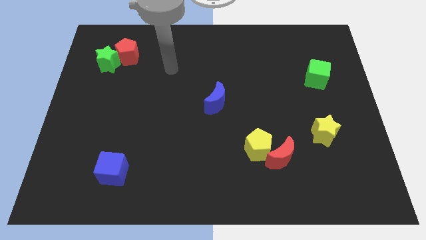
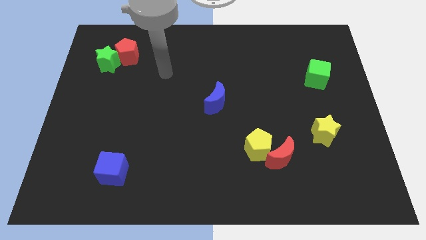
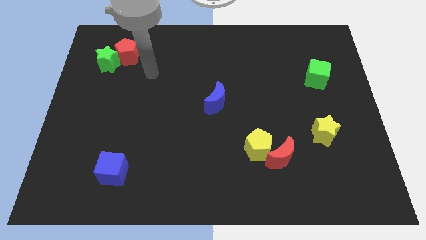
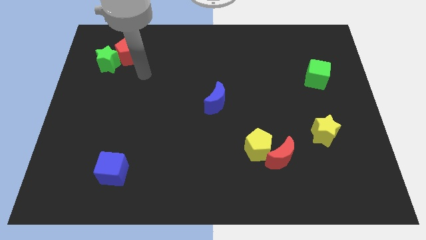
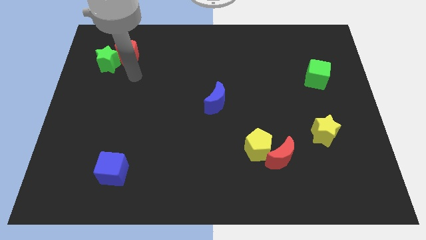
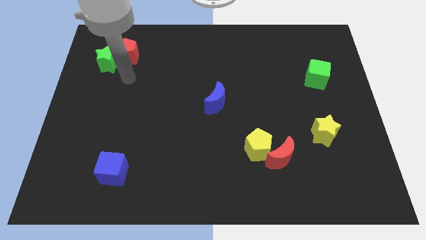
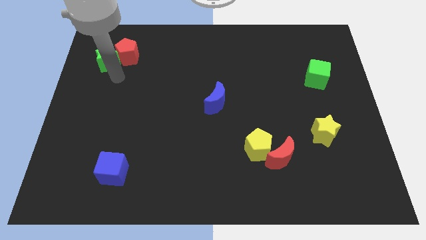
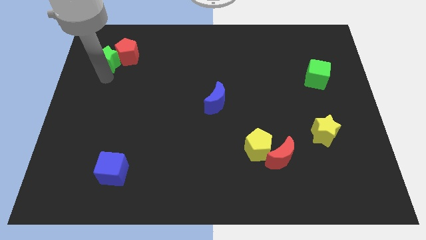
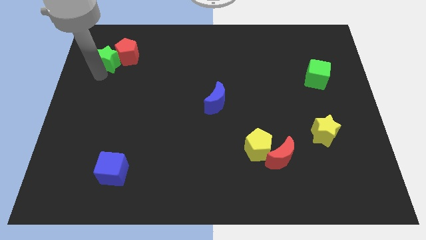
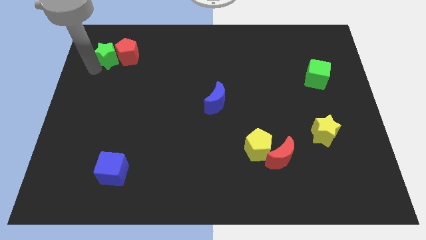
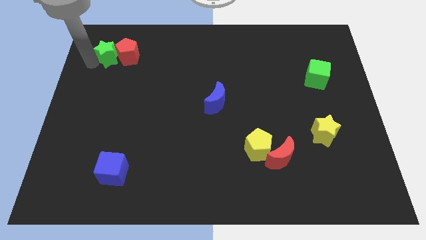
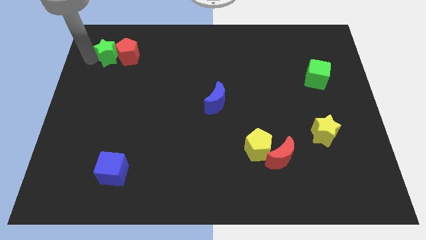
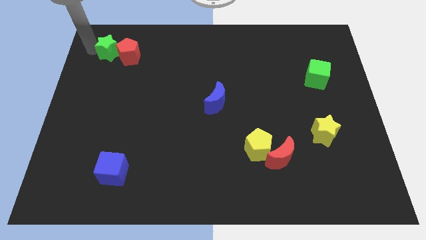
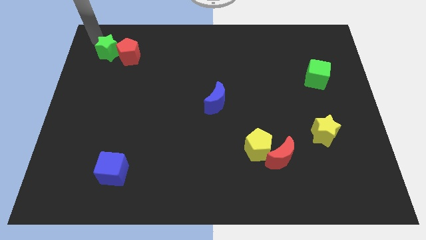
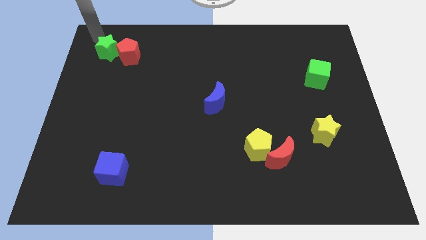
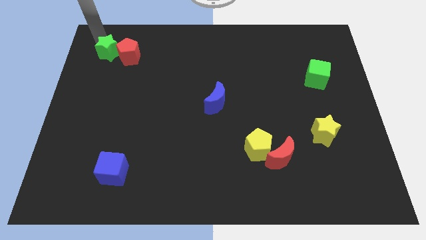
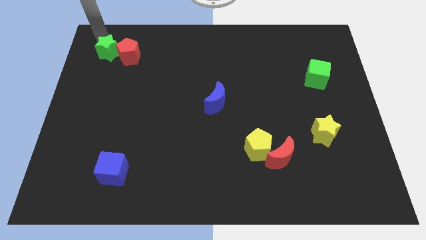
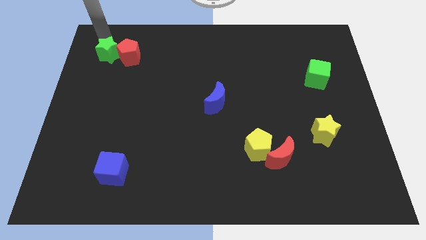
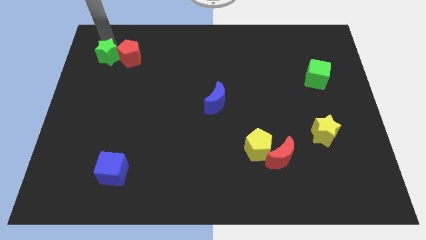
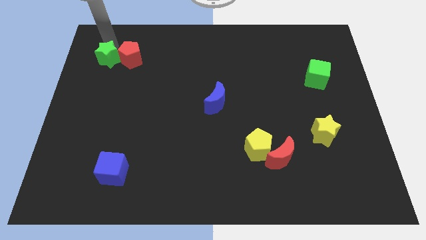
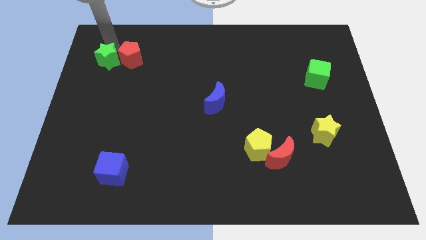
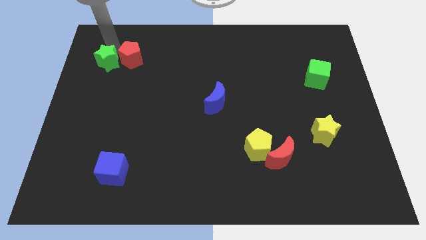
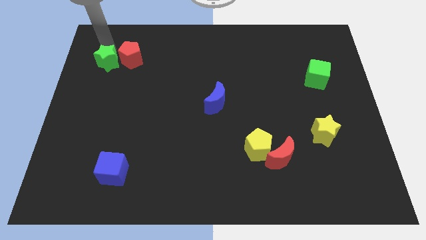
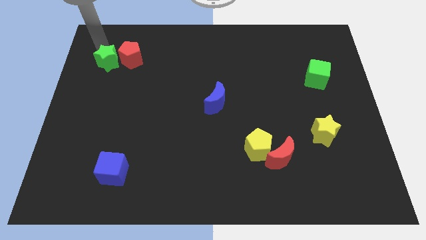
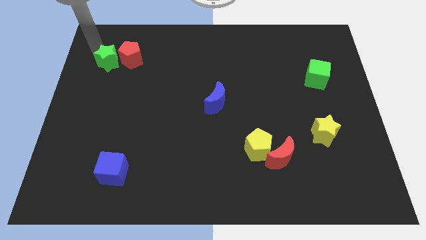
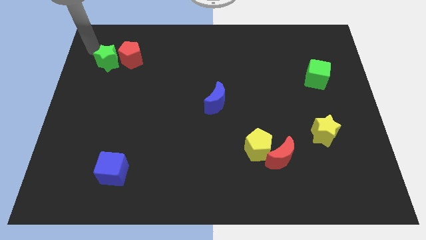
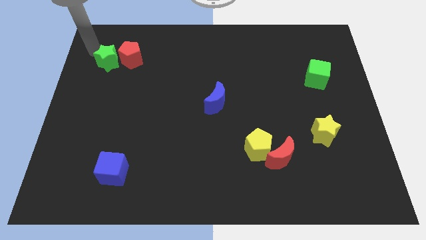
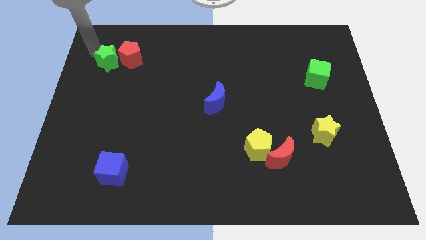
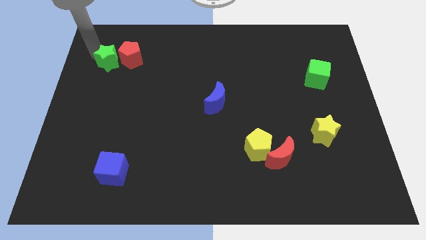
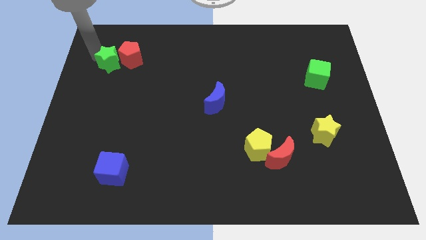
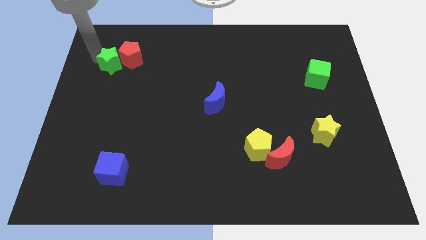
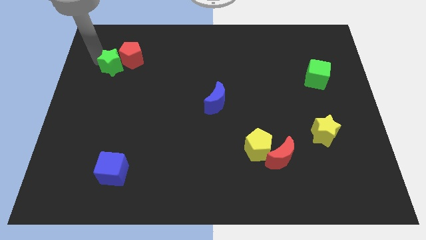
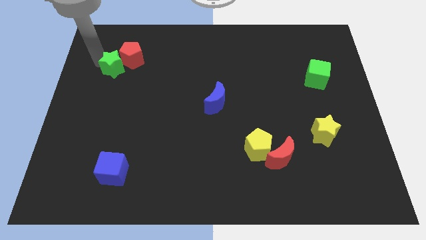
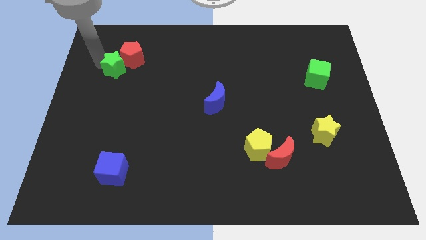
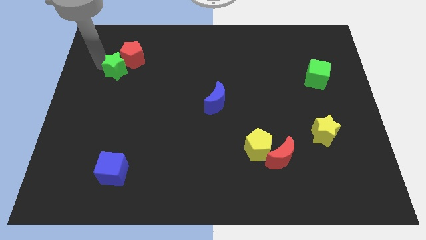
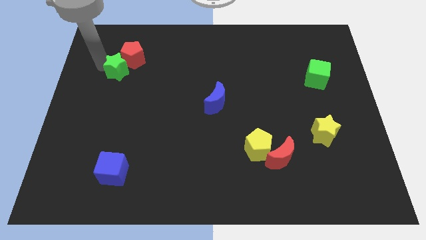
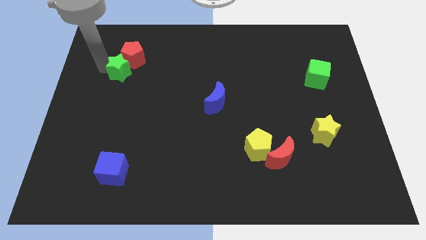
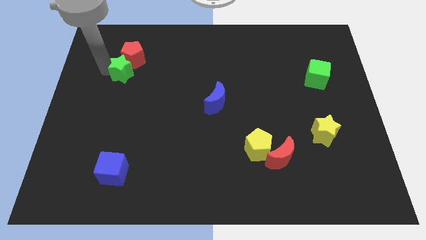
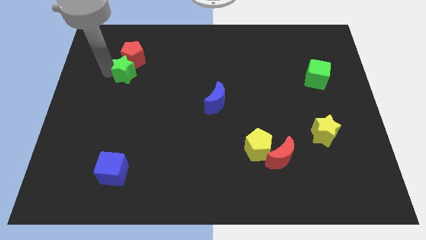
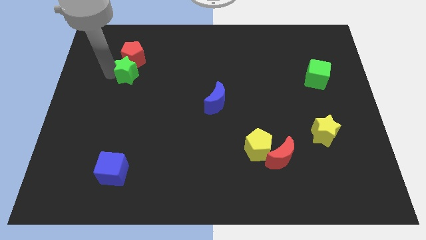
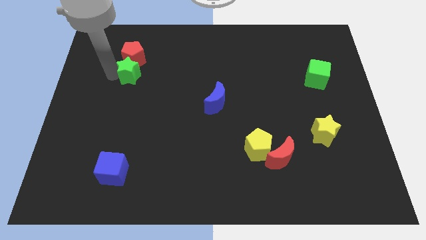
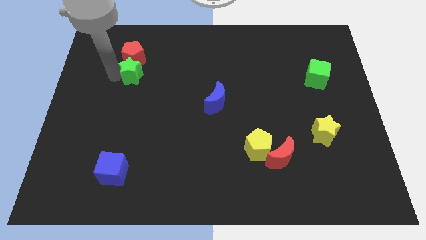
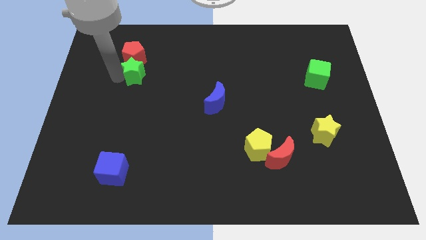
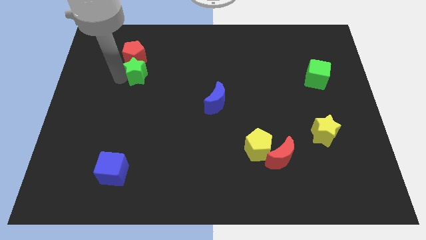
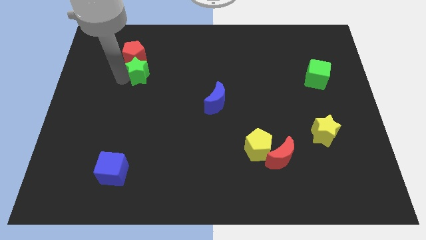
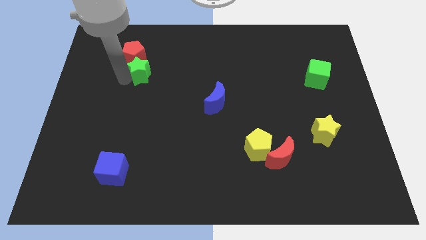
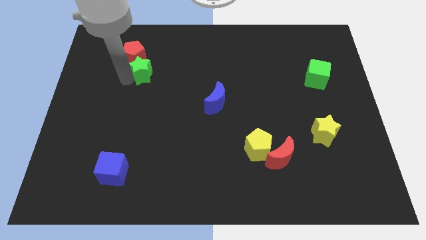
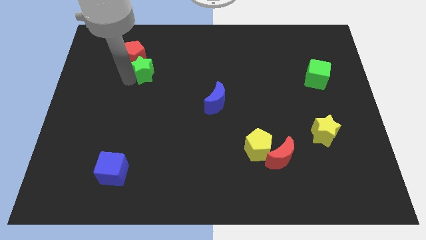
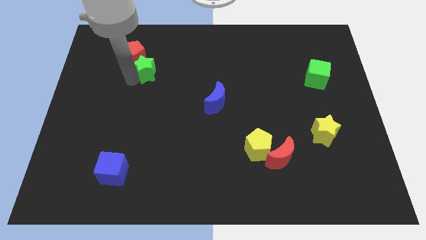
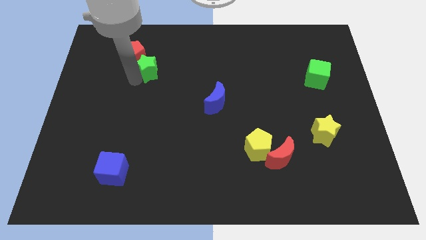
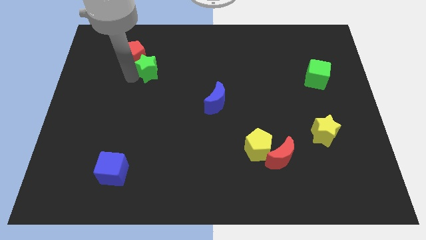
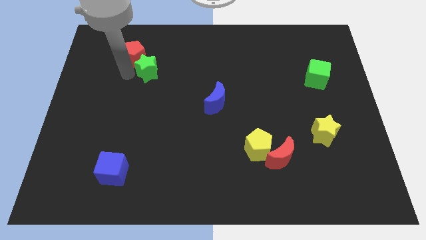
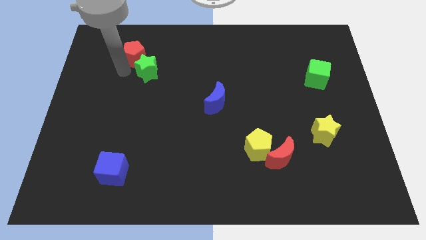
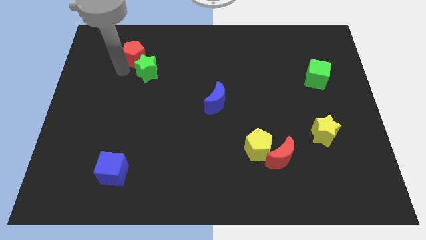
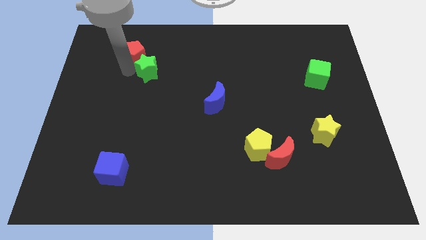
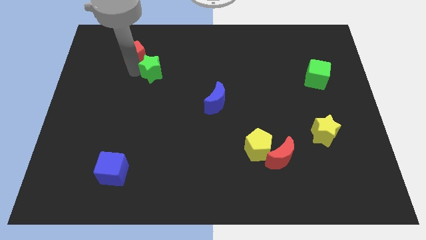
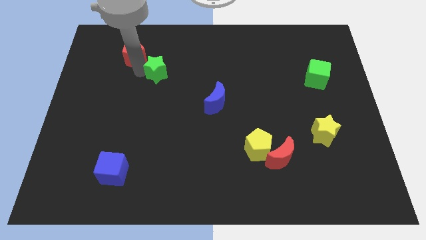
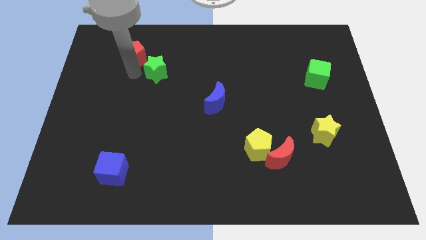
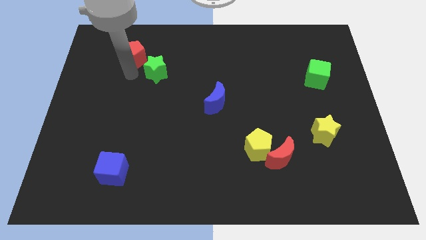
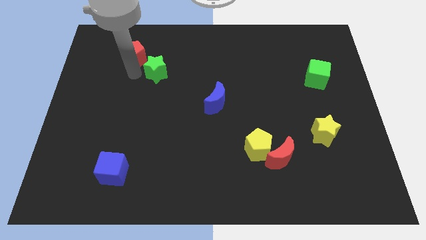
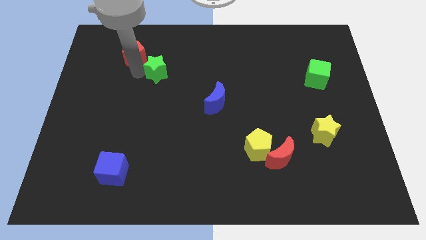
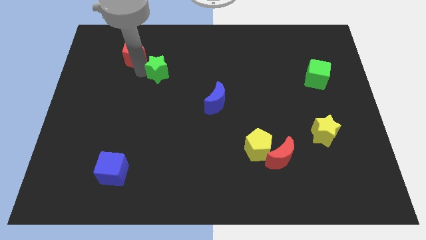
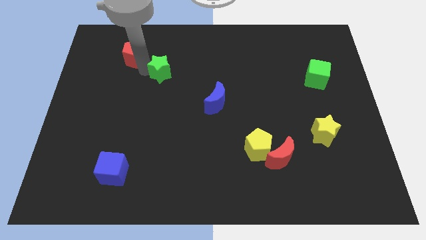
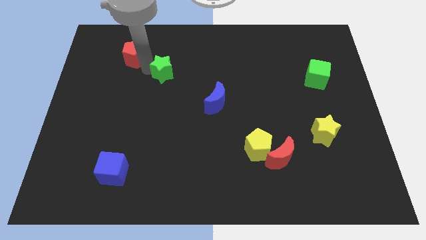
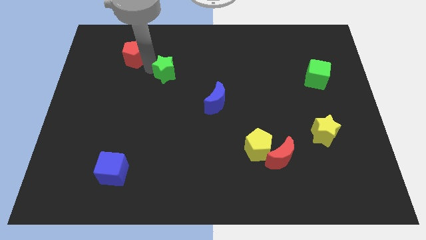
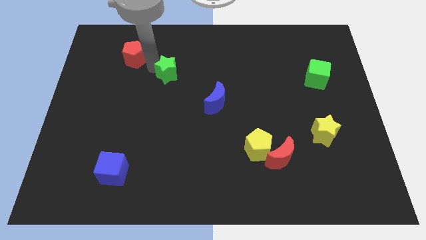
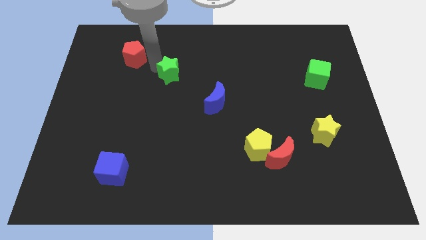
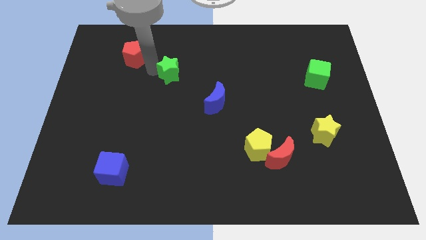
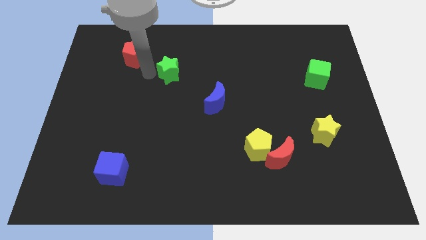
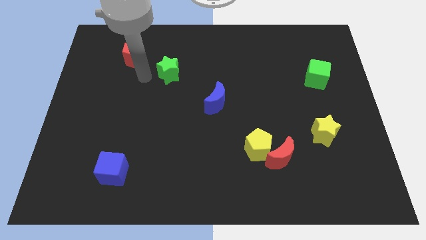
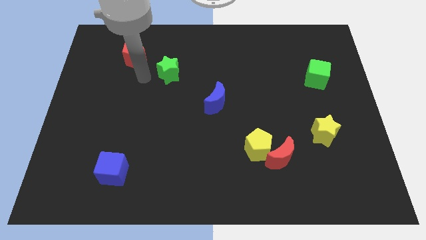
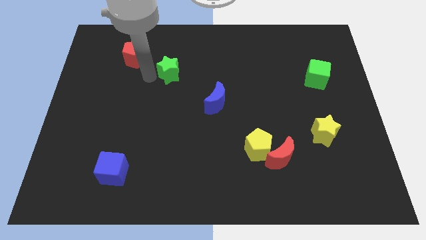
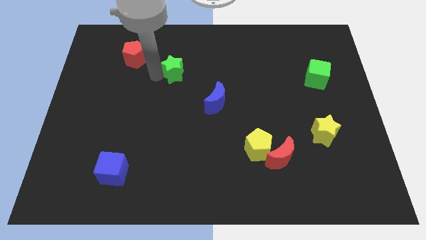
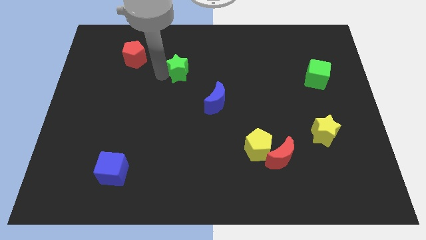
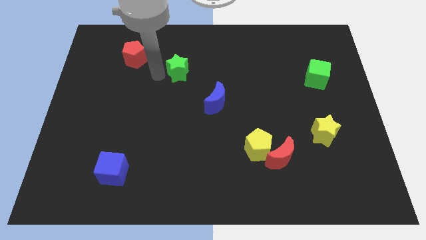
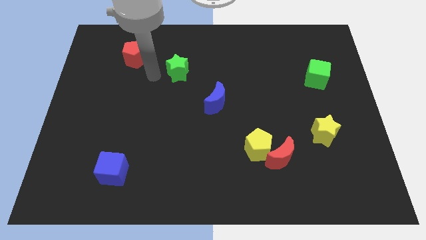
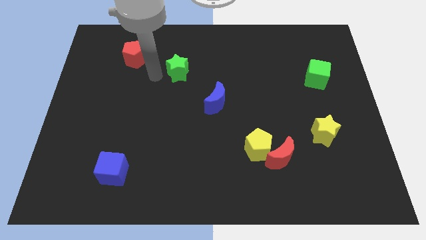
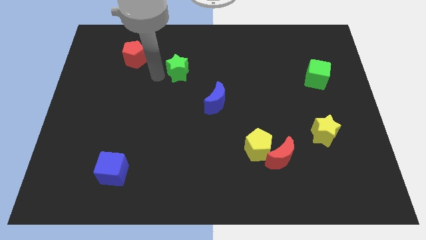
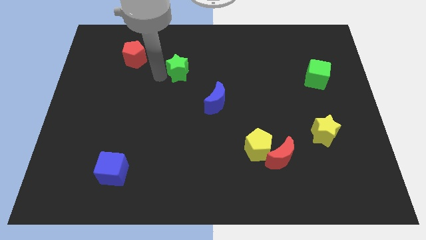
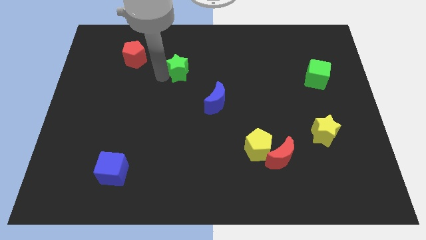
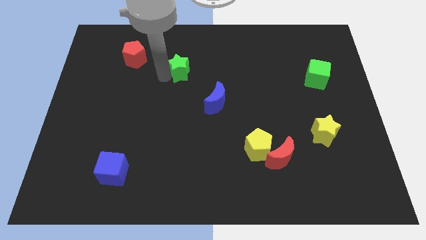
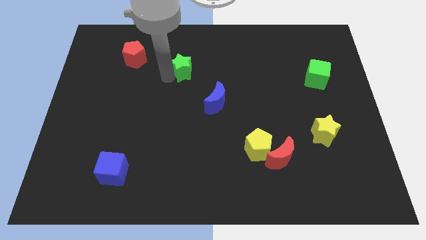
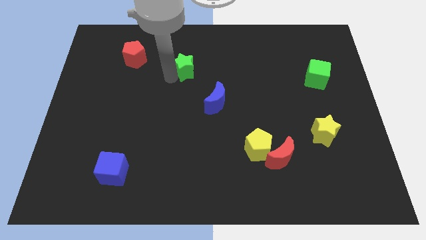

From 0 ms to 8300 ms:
move the green star right
